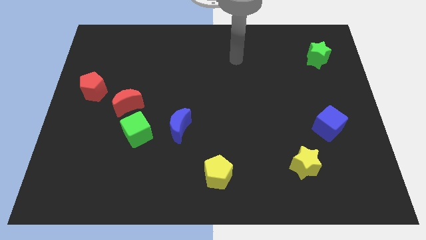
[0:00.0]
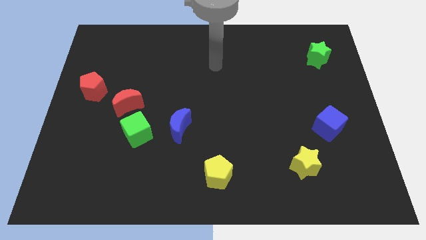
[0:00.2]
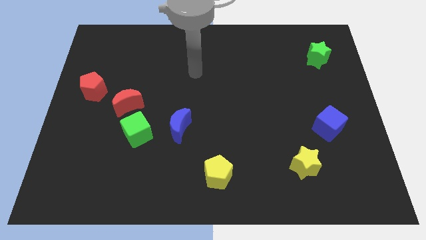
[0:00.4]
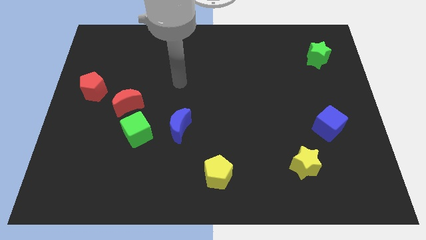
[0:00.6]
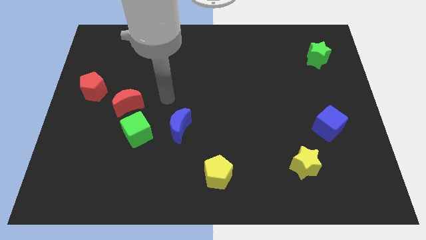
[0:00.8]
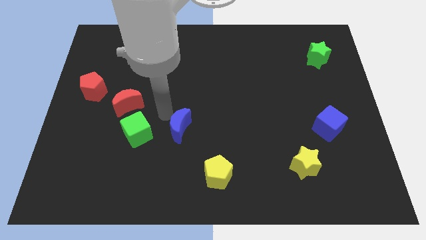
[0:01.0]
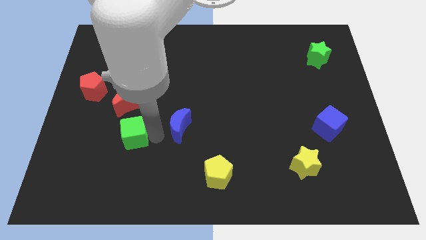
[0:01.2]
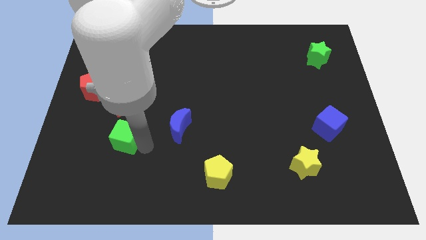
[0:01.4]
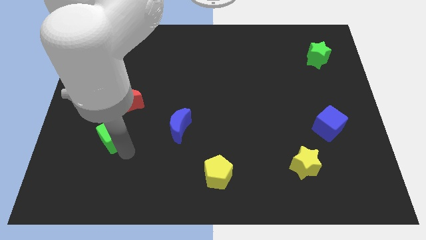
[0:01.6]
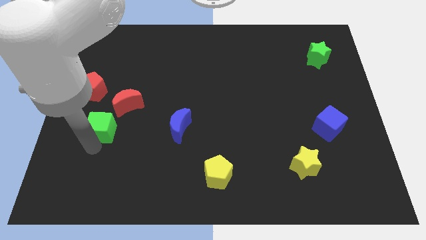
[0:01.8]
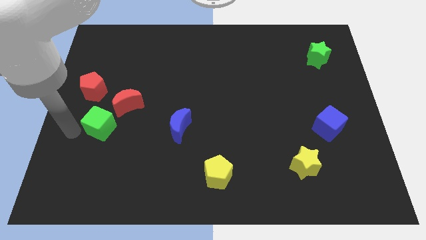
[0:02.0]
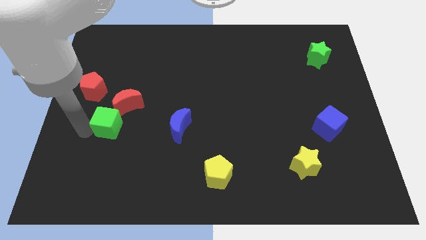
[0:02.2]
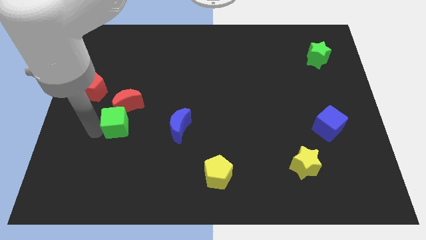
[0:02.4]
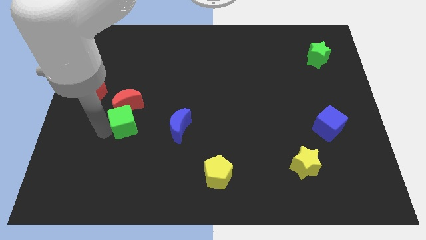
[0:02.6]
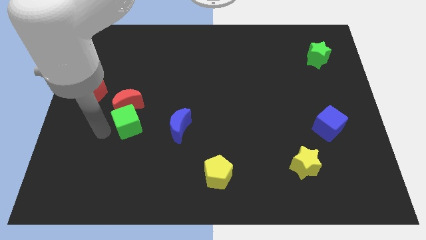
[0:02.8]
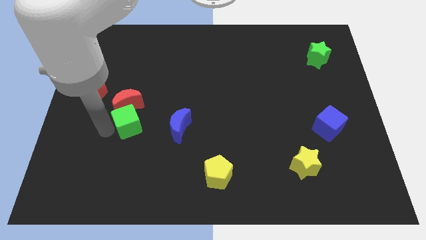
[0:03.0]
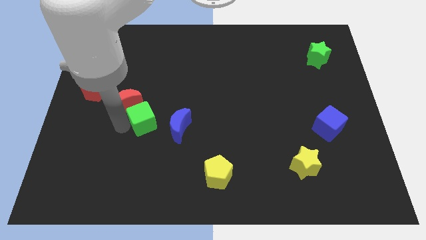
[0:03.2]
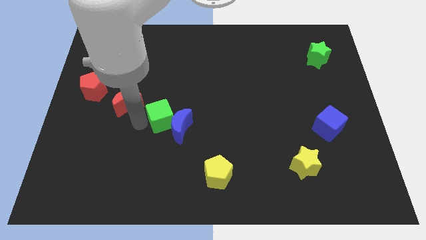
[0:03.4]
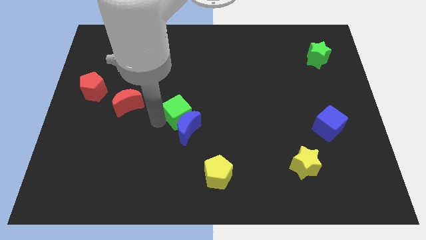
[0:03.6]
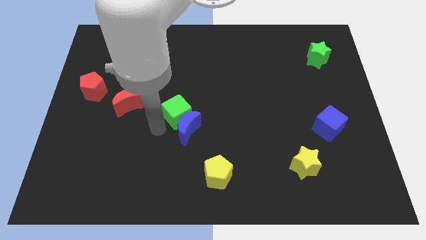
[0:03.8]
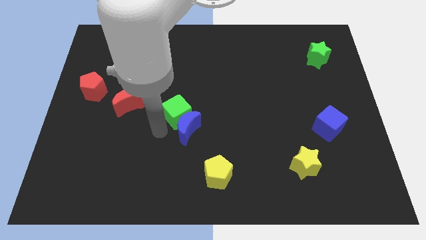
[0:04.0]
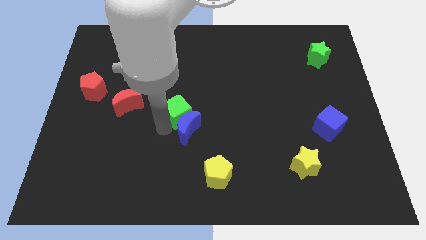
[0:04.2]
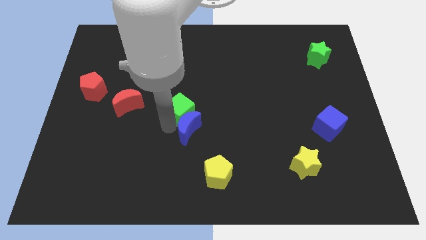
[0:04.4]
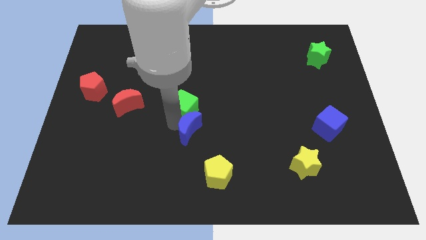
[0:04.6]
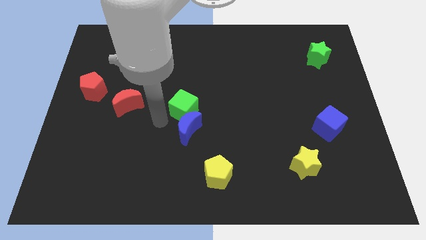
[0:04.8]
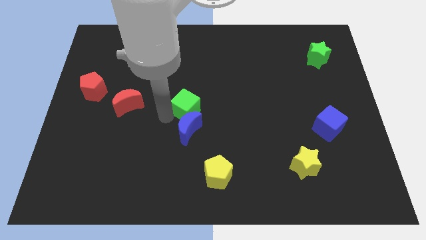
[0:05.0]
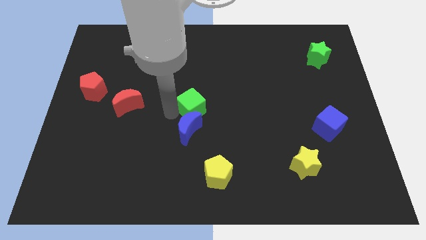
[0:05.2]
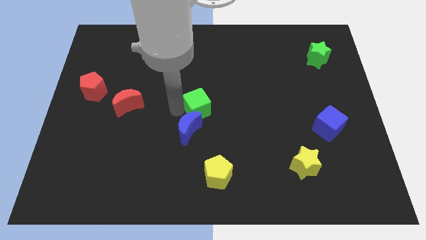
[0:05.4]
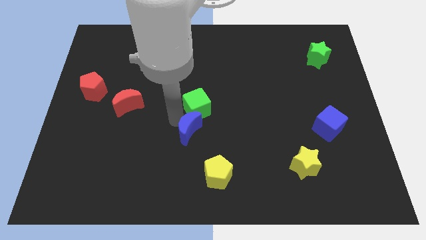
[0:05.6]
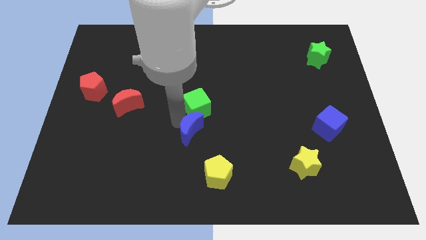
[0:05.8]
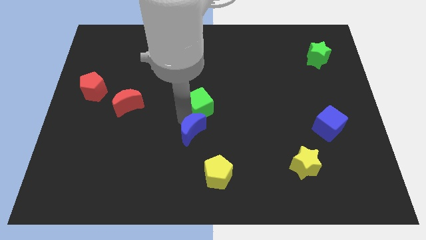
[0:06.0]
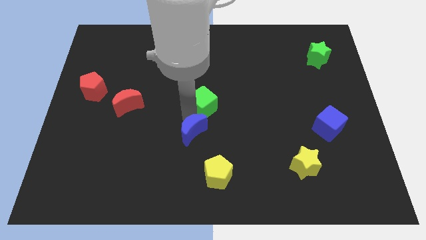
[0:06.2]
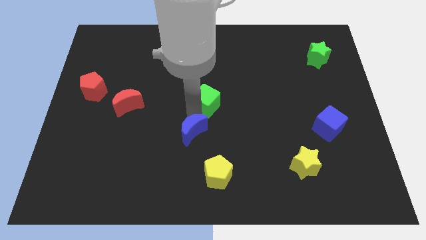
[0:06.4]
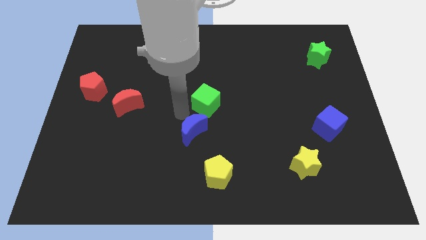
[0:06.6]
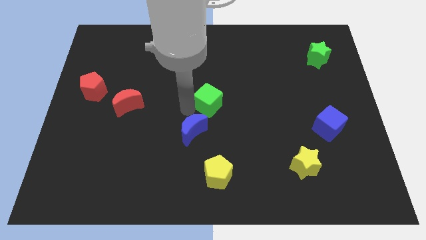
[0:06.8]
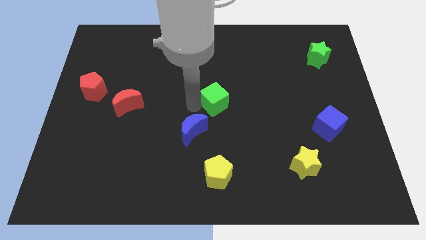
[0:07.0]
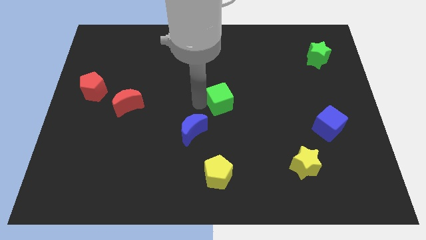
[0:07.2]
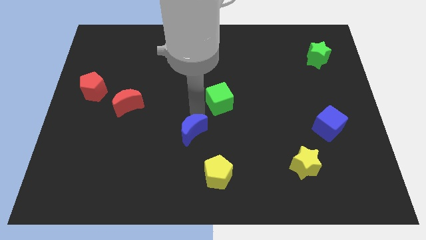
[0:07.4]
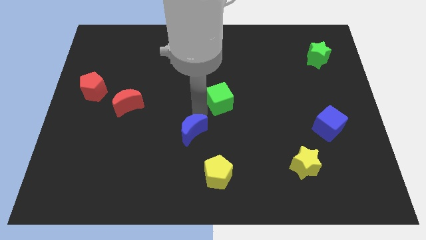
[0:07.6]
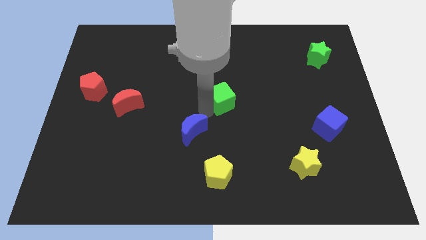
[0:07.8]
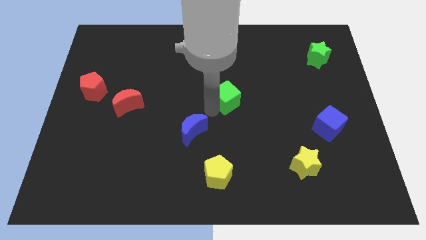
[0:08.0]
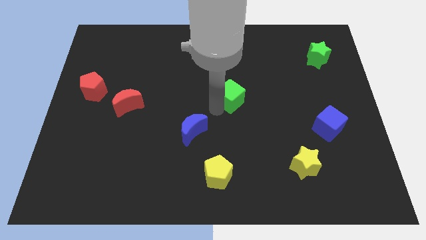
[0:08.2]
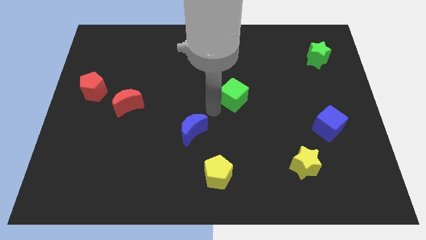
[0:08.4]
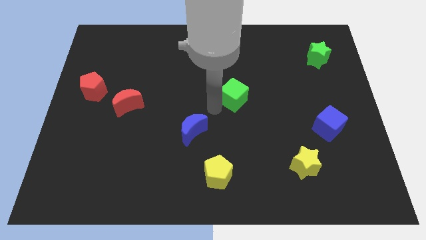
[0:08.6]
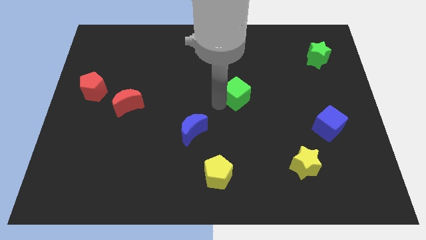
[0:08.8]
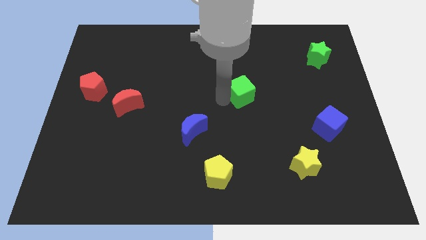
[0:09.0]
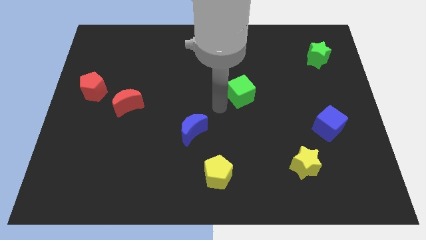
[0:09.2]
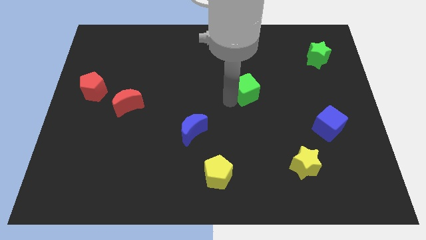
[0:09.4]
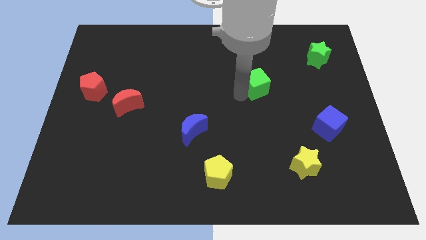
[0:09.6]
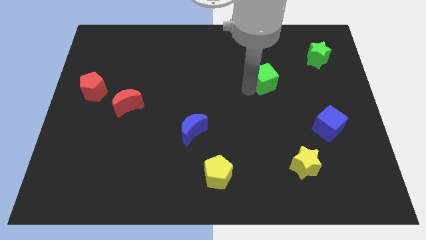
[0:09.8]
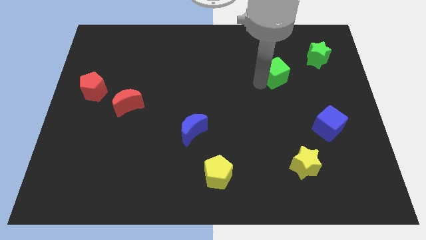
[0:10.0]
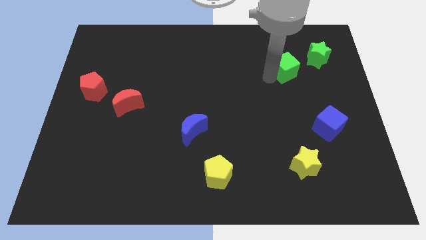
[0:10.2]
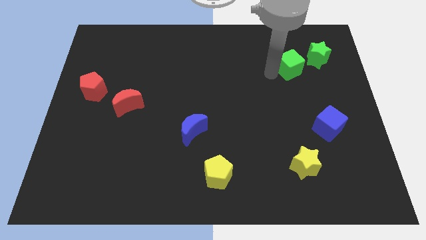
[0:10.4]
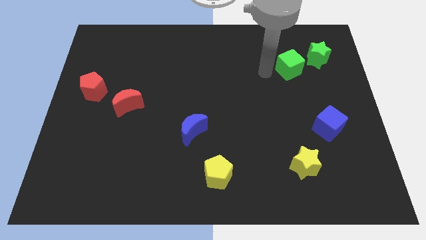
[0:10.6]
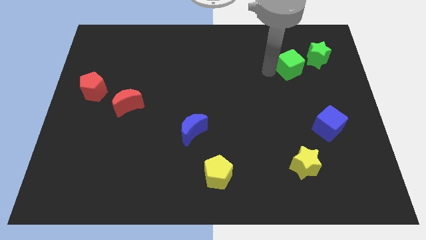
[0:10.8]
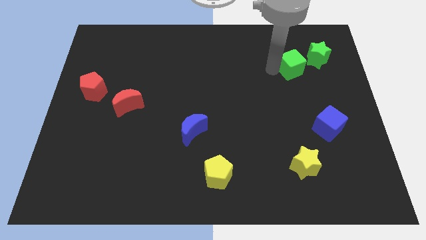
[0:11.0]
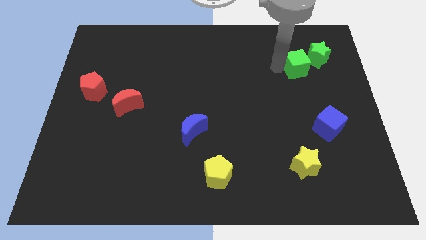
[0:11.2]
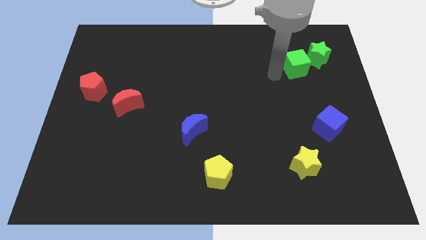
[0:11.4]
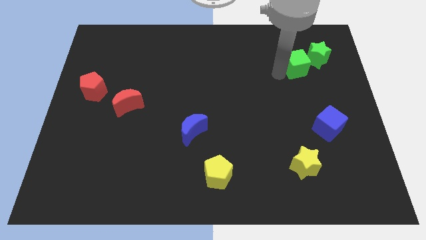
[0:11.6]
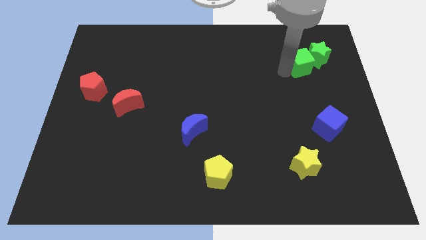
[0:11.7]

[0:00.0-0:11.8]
slide the green cube close to the green star

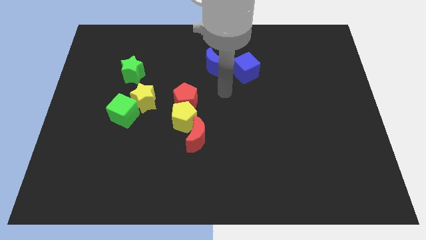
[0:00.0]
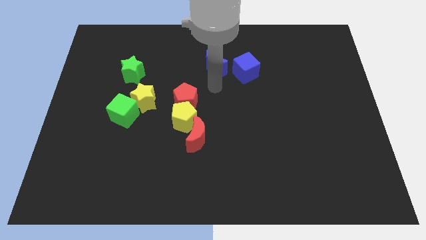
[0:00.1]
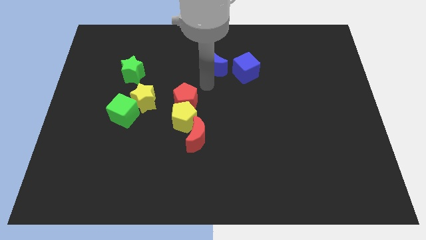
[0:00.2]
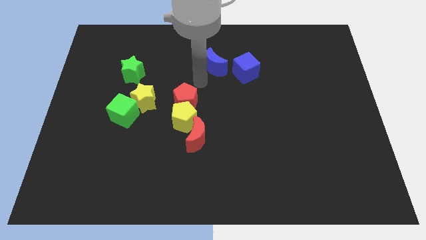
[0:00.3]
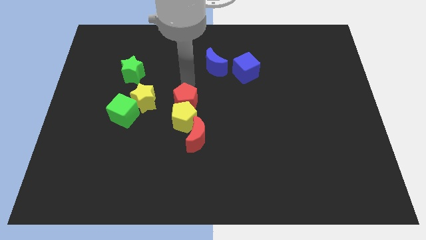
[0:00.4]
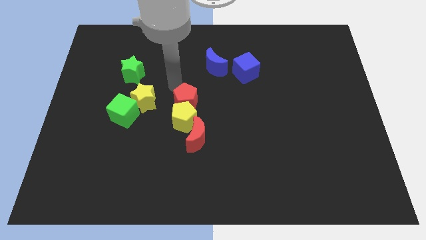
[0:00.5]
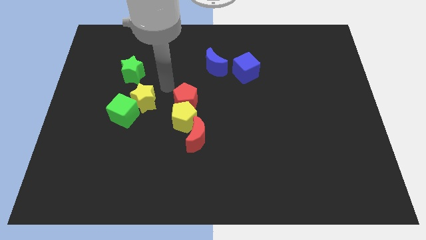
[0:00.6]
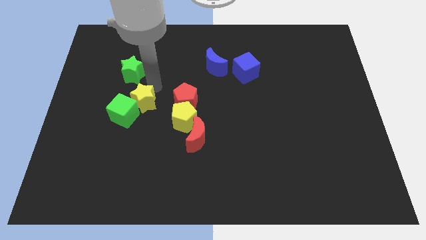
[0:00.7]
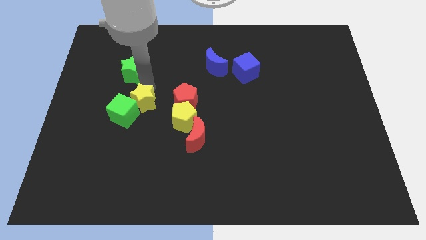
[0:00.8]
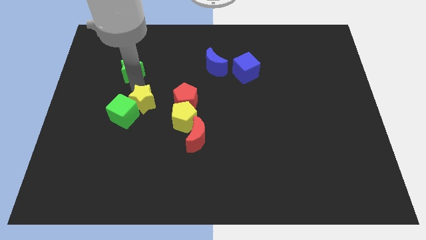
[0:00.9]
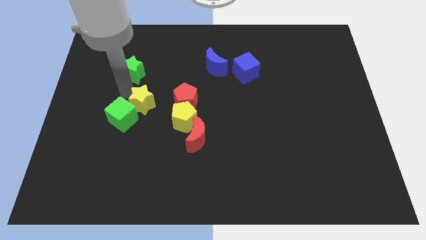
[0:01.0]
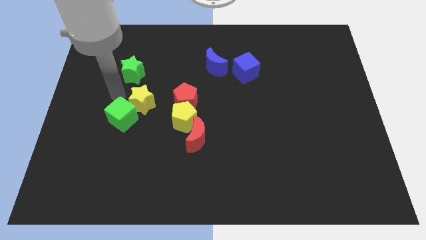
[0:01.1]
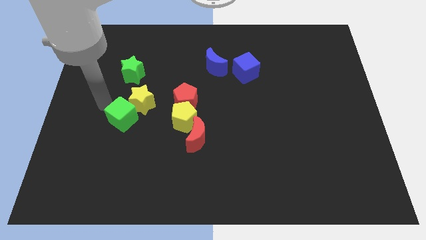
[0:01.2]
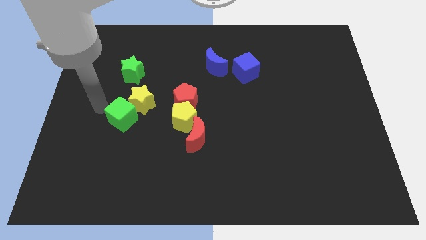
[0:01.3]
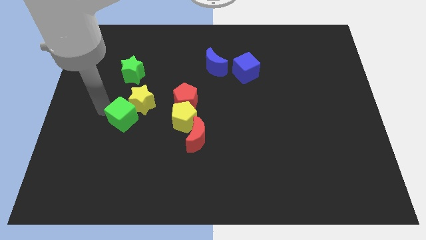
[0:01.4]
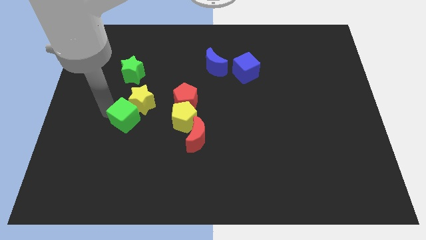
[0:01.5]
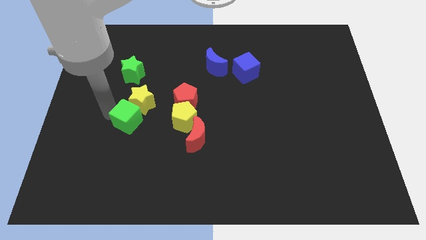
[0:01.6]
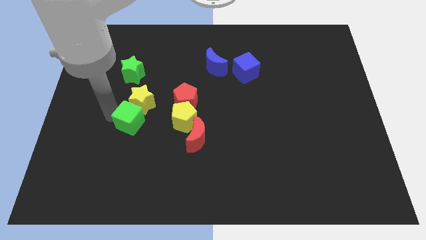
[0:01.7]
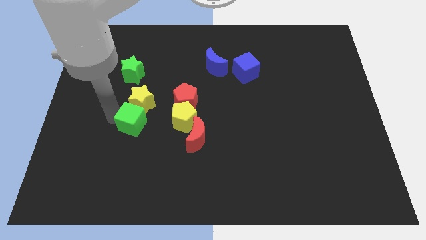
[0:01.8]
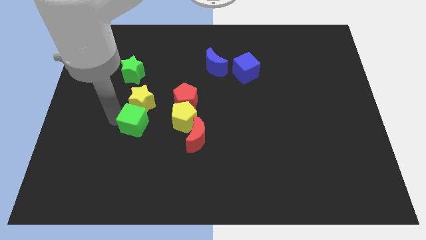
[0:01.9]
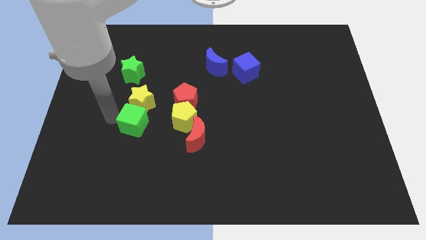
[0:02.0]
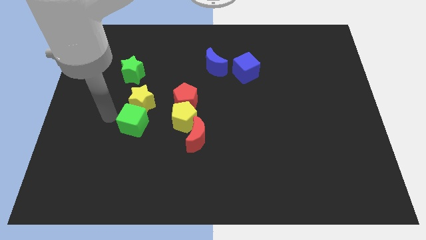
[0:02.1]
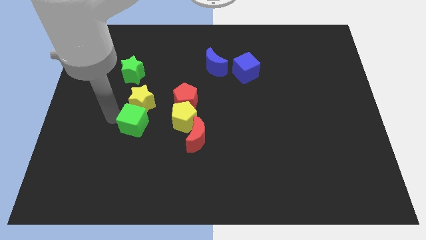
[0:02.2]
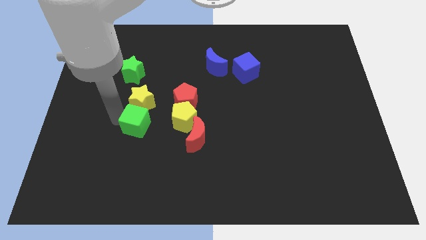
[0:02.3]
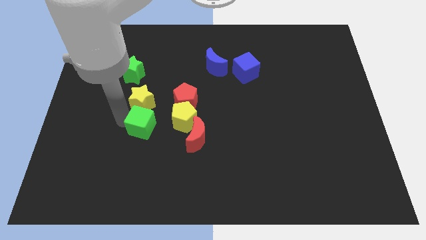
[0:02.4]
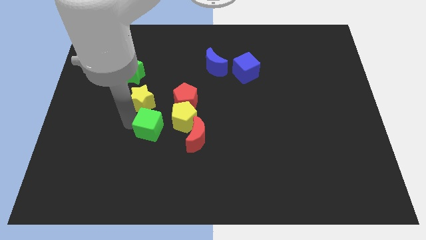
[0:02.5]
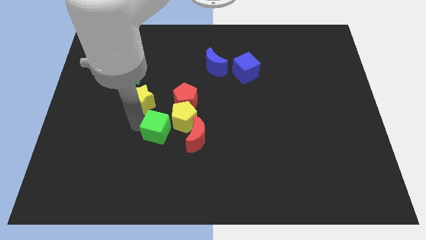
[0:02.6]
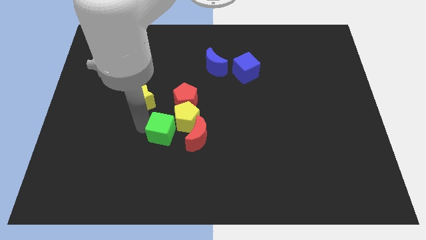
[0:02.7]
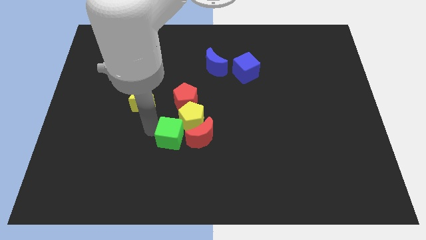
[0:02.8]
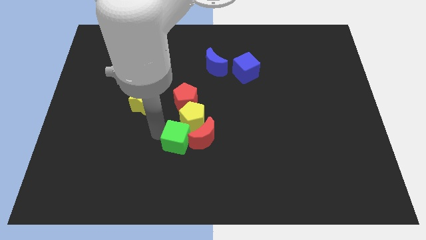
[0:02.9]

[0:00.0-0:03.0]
put the green cube next to the red moon
